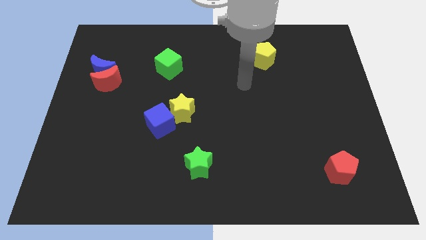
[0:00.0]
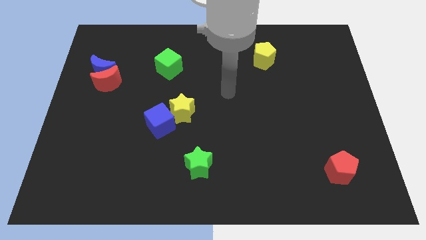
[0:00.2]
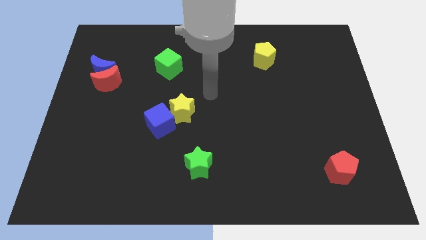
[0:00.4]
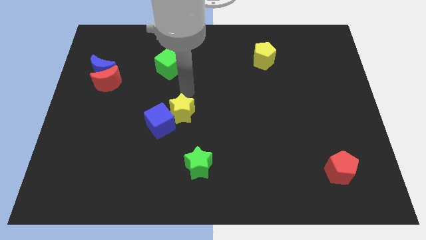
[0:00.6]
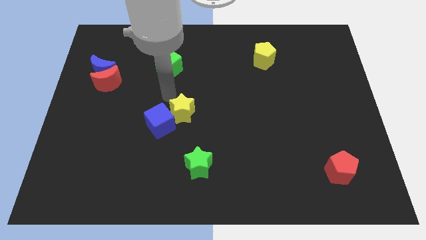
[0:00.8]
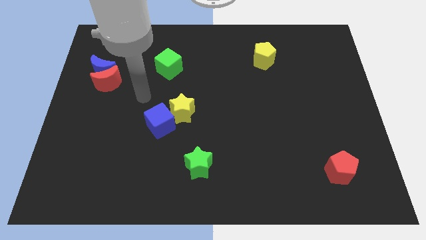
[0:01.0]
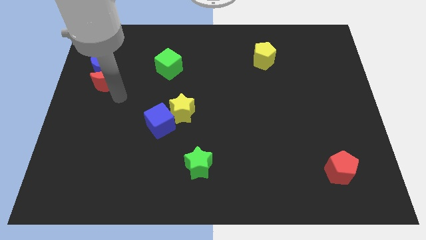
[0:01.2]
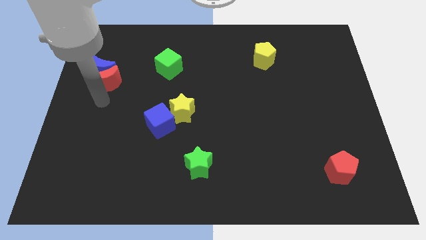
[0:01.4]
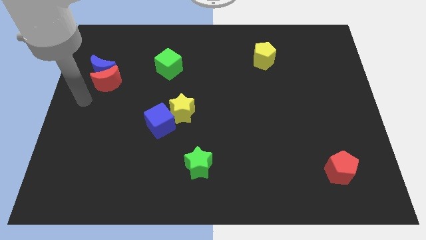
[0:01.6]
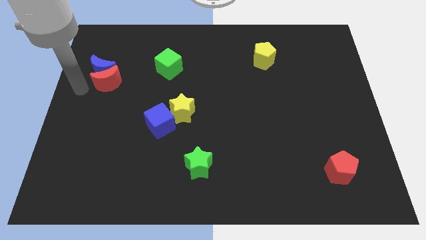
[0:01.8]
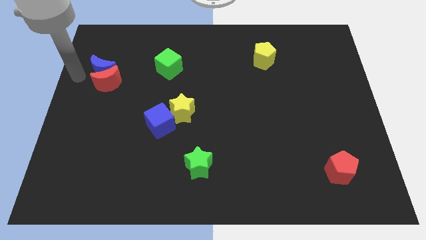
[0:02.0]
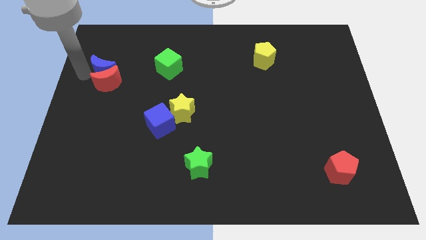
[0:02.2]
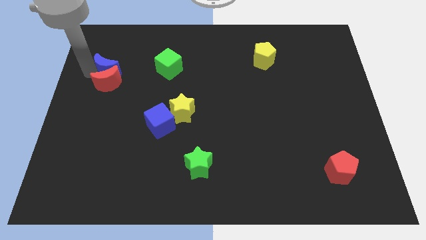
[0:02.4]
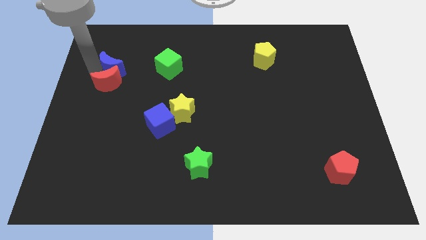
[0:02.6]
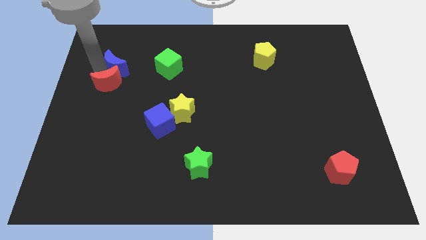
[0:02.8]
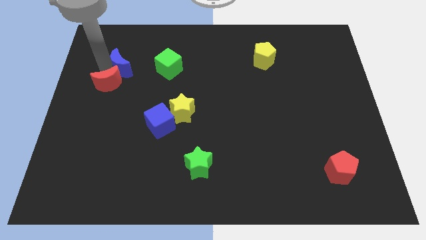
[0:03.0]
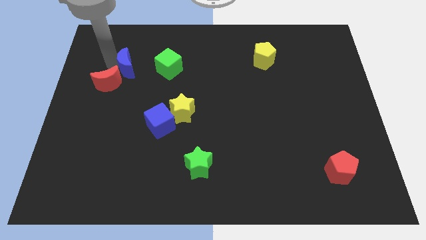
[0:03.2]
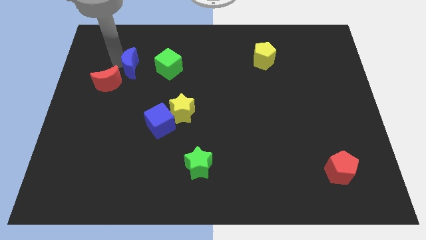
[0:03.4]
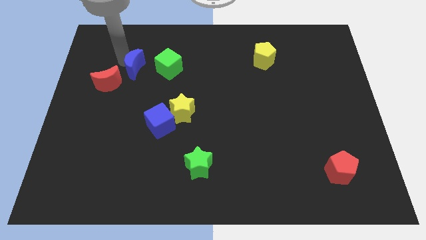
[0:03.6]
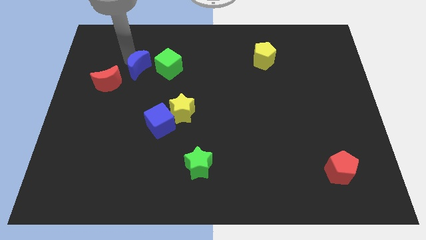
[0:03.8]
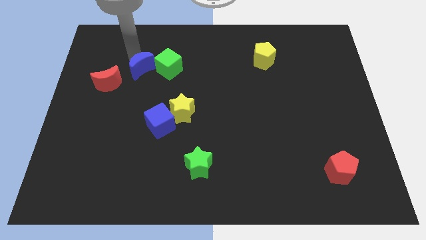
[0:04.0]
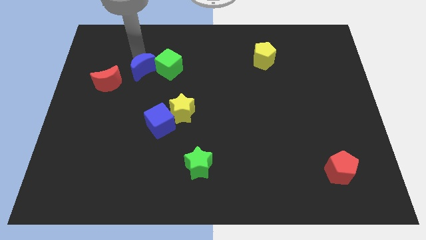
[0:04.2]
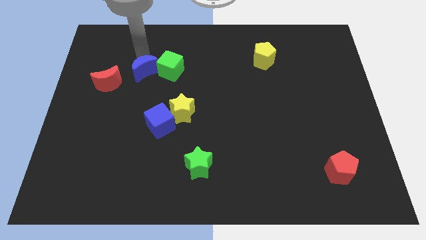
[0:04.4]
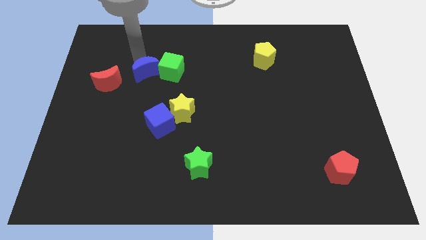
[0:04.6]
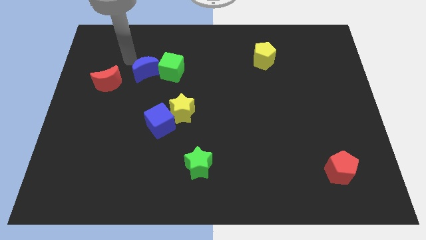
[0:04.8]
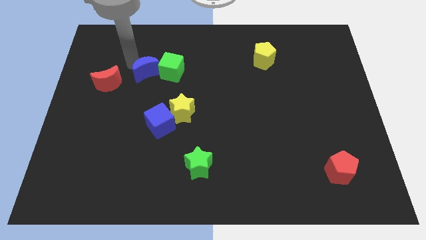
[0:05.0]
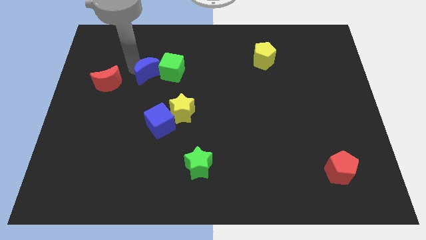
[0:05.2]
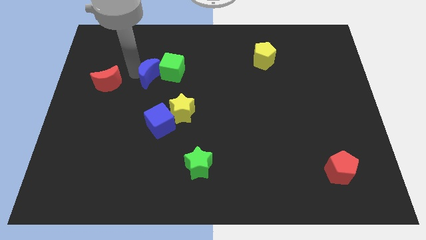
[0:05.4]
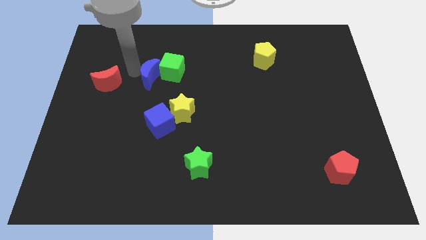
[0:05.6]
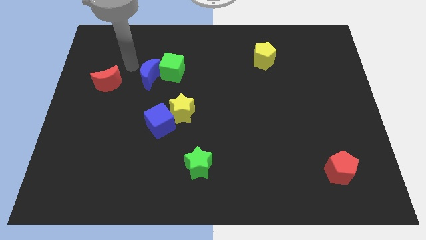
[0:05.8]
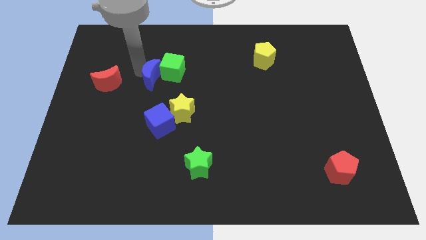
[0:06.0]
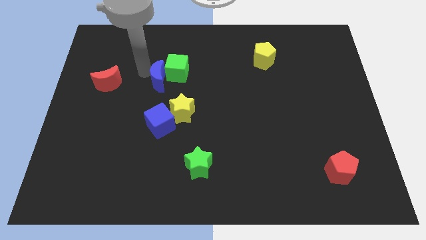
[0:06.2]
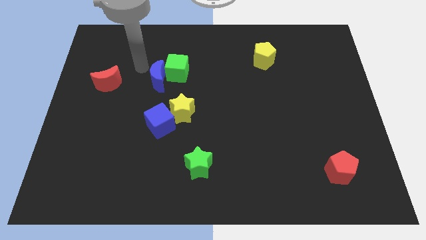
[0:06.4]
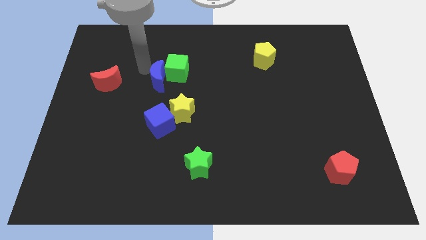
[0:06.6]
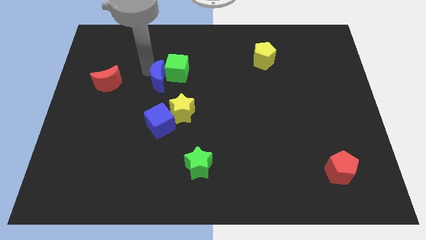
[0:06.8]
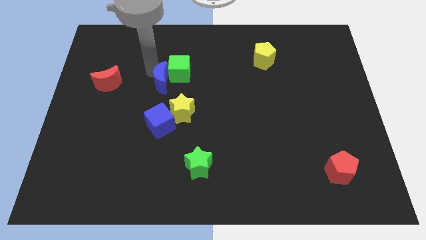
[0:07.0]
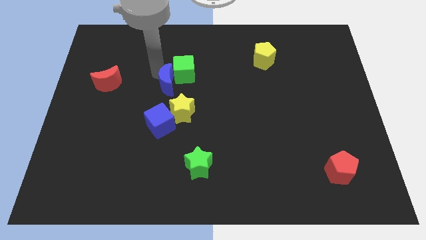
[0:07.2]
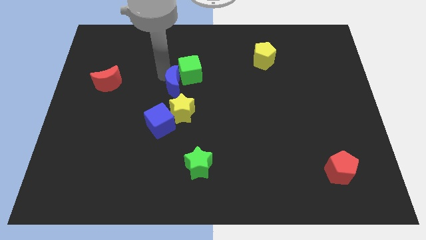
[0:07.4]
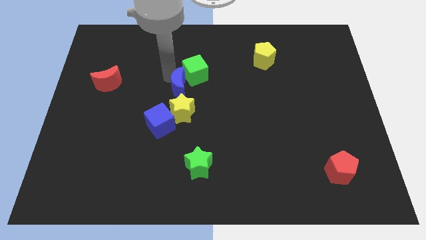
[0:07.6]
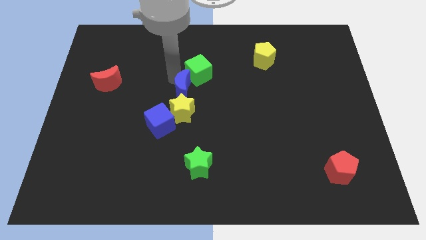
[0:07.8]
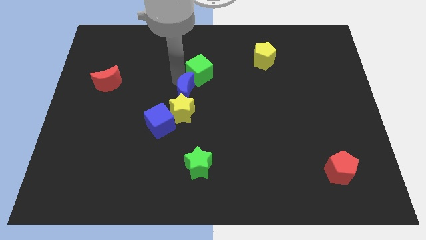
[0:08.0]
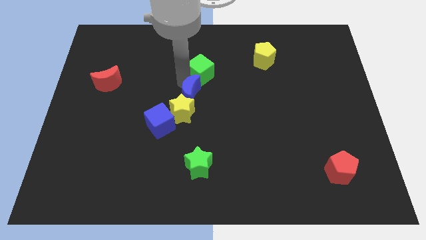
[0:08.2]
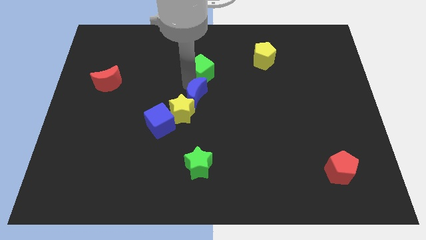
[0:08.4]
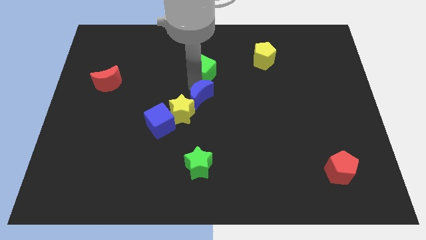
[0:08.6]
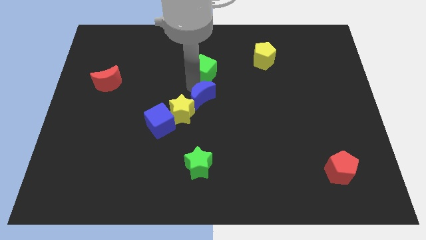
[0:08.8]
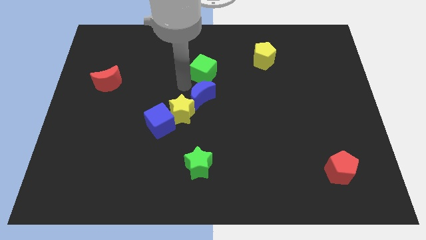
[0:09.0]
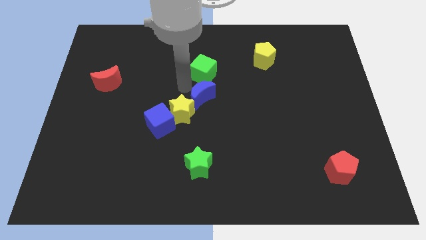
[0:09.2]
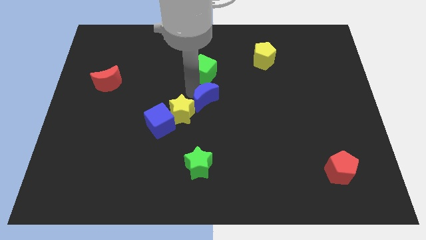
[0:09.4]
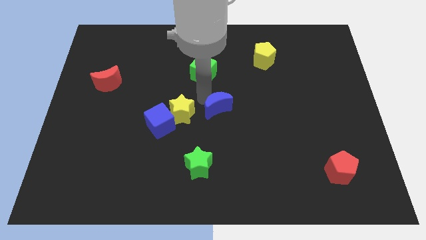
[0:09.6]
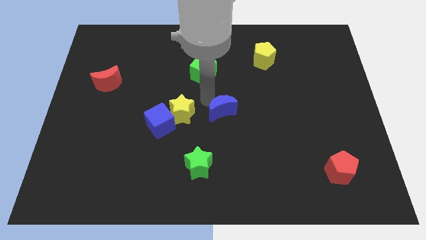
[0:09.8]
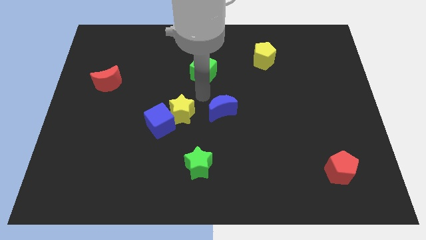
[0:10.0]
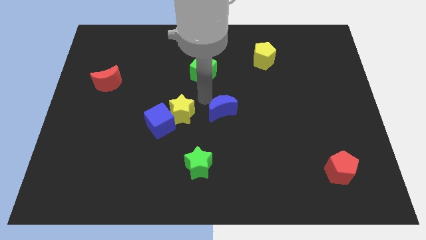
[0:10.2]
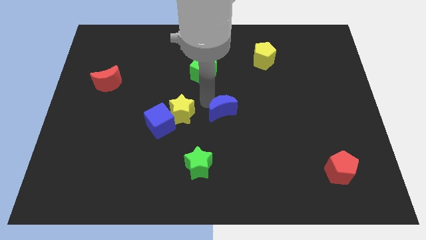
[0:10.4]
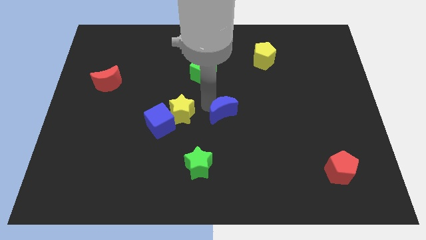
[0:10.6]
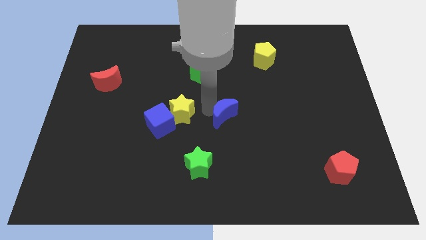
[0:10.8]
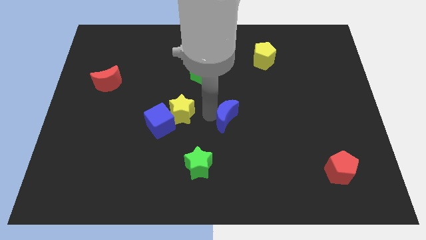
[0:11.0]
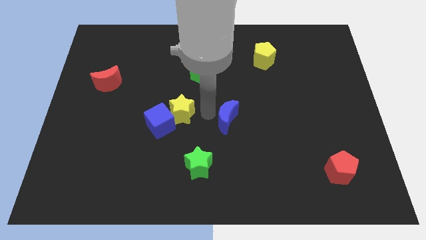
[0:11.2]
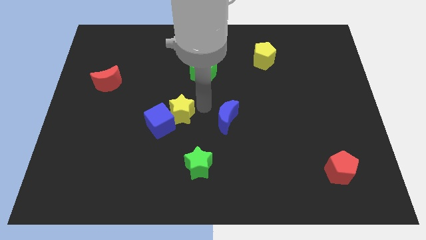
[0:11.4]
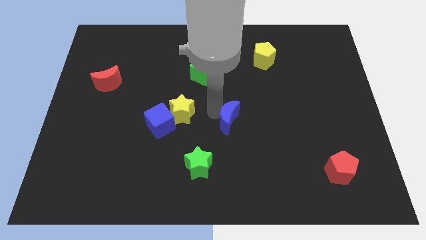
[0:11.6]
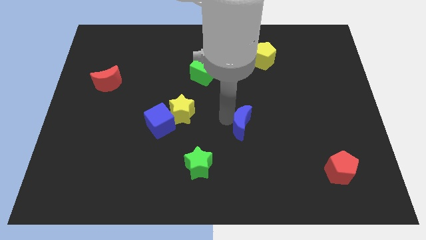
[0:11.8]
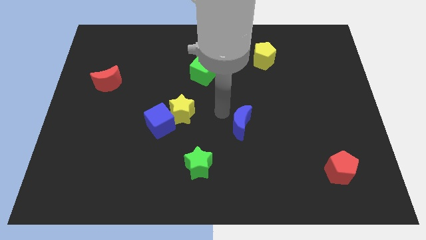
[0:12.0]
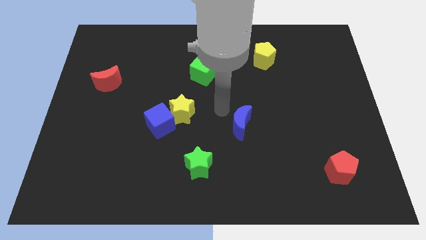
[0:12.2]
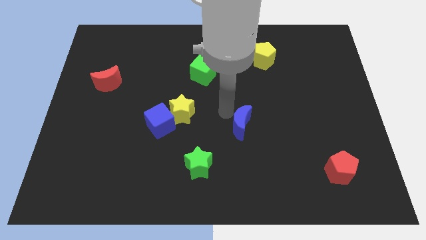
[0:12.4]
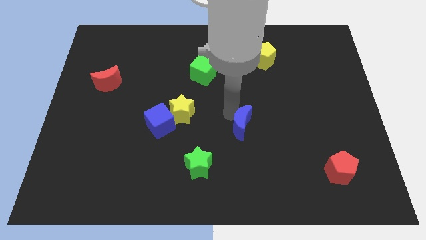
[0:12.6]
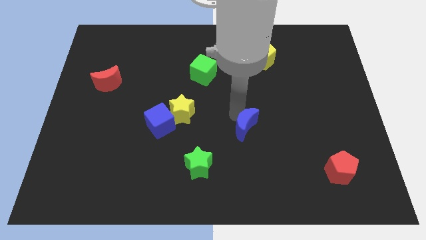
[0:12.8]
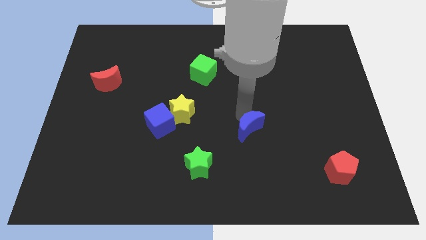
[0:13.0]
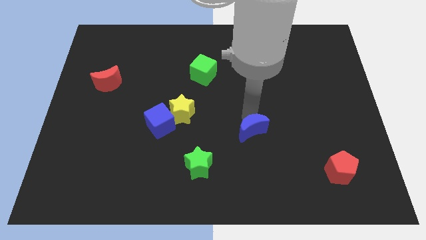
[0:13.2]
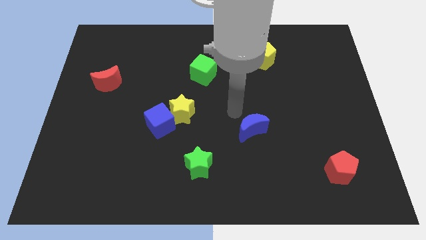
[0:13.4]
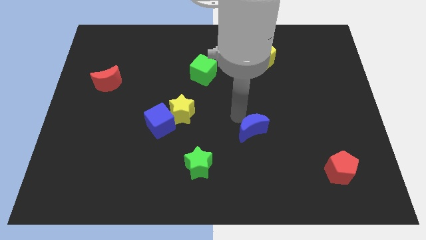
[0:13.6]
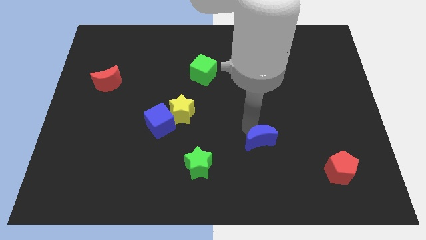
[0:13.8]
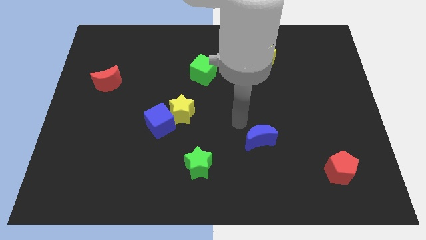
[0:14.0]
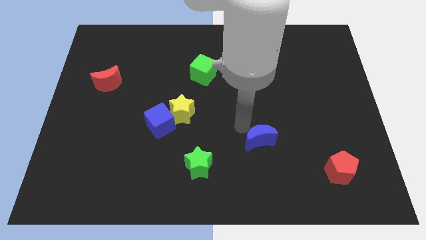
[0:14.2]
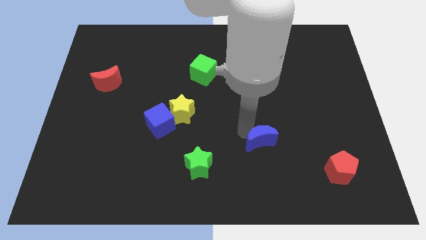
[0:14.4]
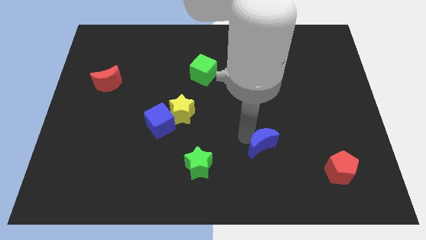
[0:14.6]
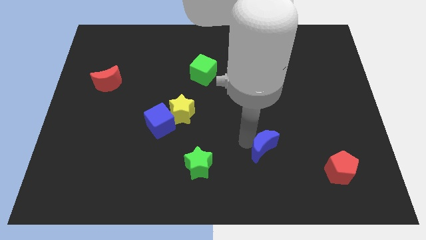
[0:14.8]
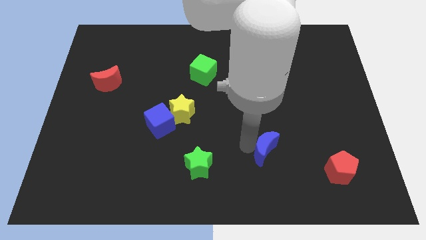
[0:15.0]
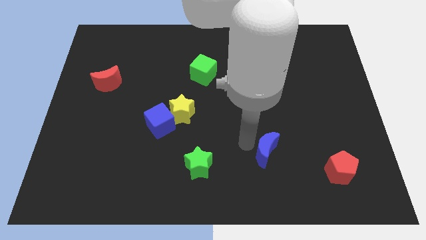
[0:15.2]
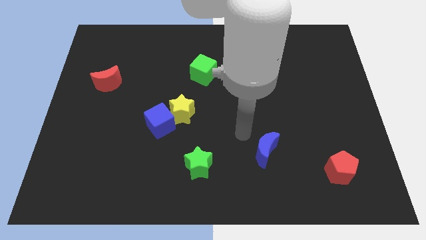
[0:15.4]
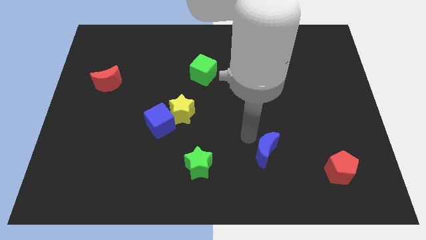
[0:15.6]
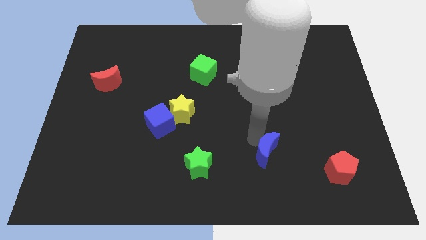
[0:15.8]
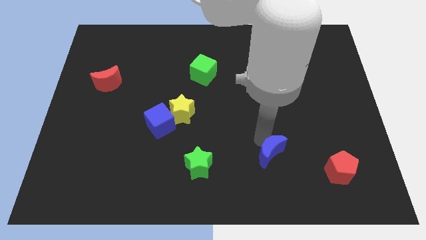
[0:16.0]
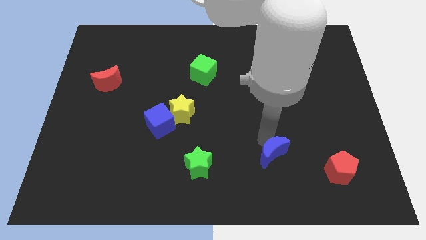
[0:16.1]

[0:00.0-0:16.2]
slide the blue moon to the left of the red pentagon
